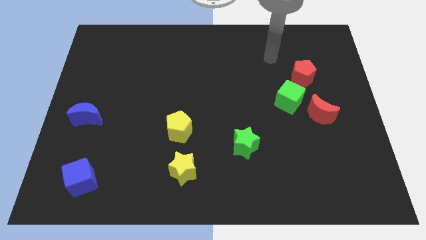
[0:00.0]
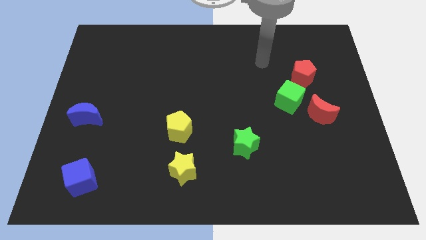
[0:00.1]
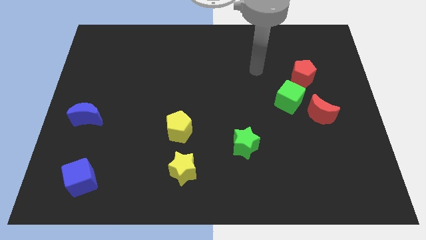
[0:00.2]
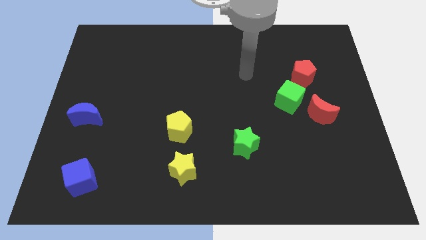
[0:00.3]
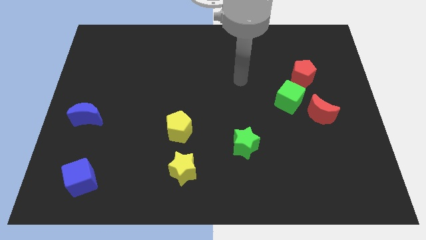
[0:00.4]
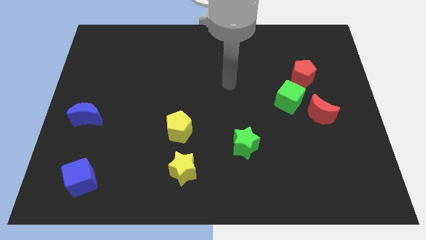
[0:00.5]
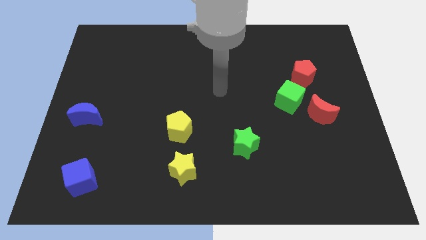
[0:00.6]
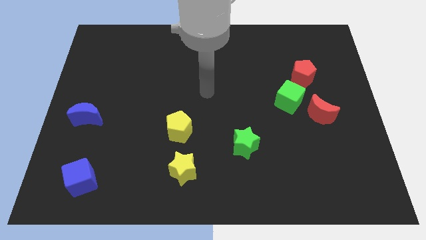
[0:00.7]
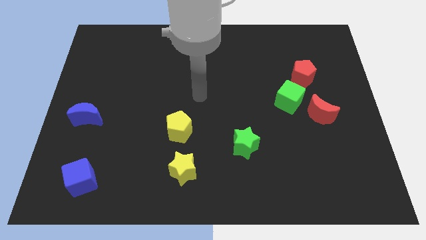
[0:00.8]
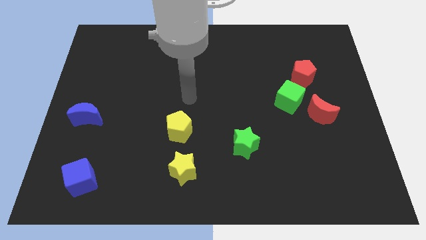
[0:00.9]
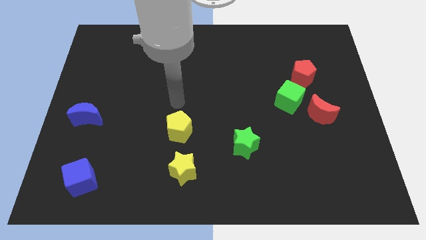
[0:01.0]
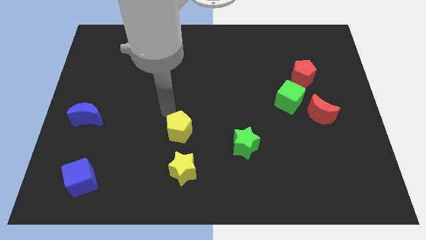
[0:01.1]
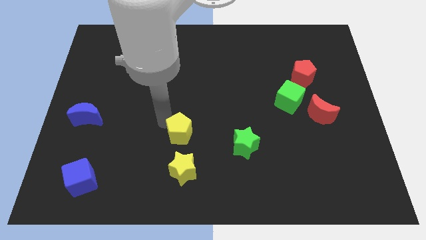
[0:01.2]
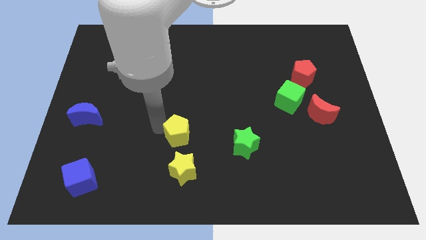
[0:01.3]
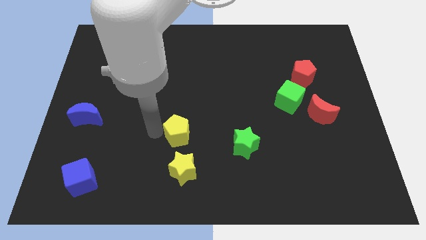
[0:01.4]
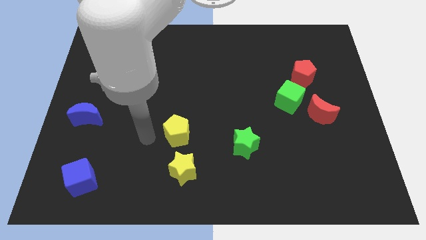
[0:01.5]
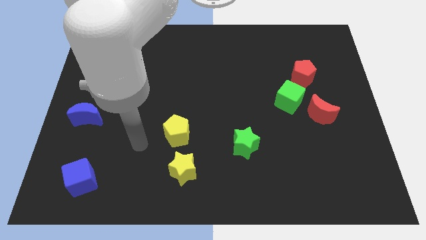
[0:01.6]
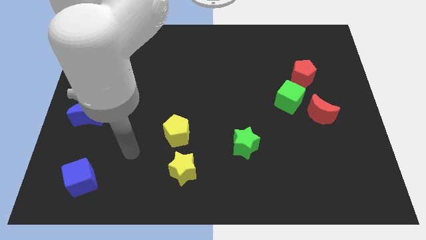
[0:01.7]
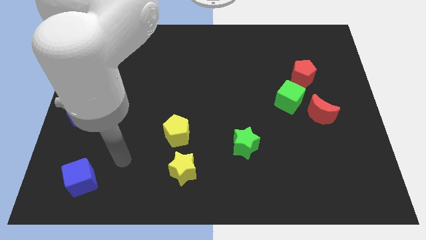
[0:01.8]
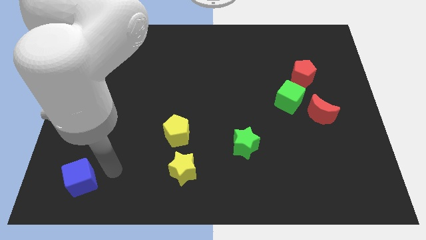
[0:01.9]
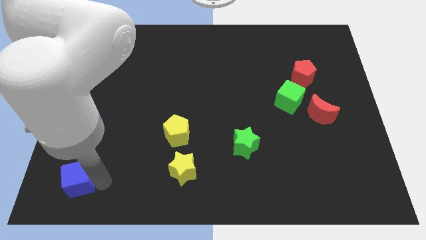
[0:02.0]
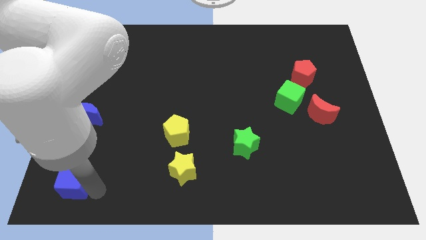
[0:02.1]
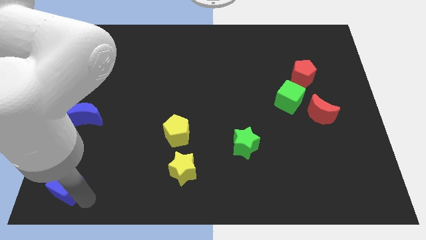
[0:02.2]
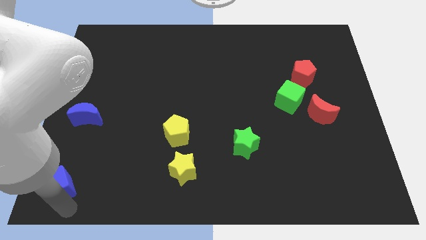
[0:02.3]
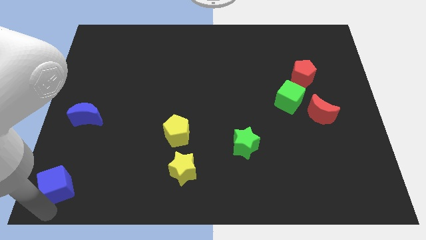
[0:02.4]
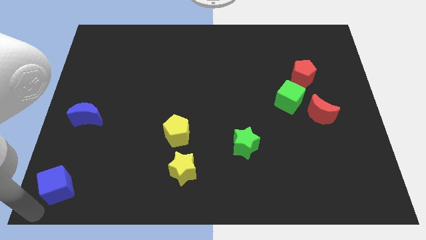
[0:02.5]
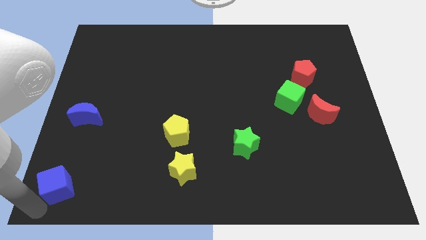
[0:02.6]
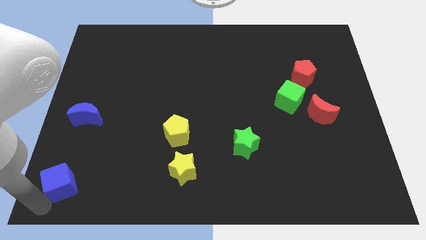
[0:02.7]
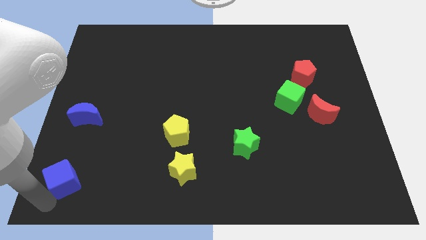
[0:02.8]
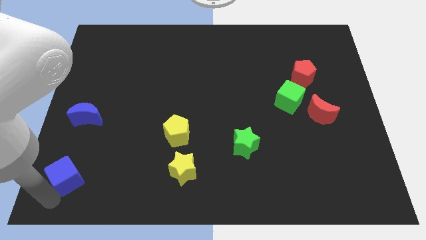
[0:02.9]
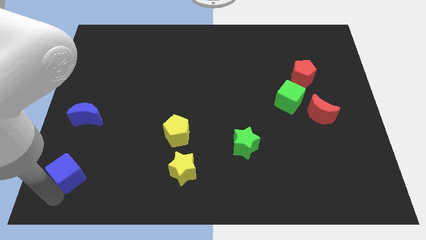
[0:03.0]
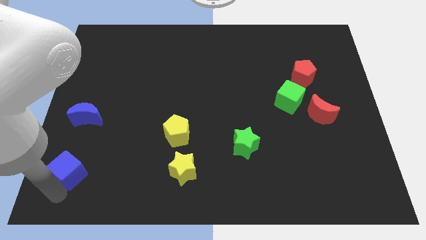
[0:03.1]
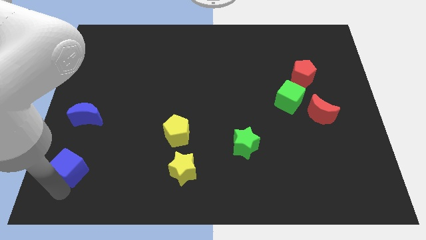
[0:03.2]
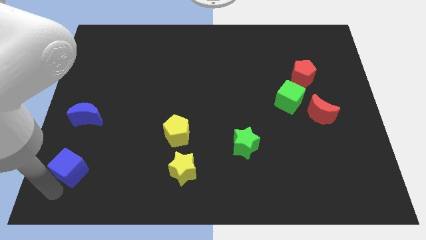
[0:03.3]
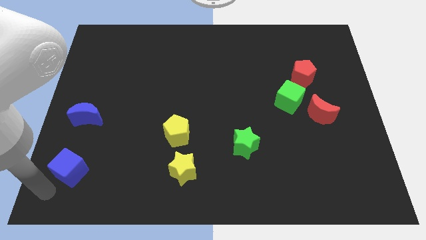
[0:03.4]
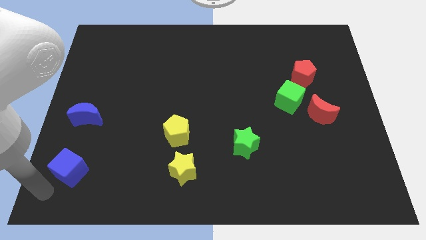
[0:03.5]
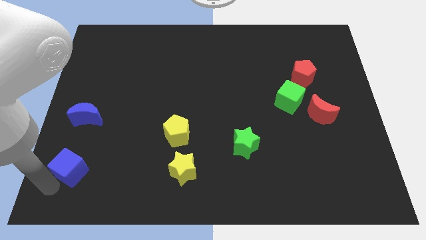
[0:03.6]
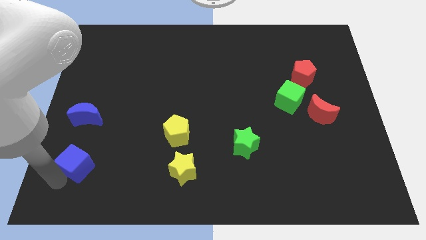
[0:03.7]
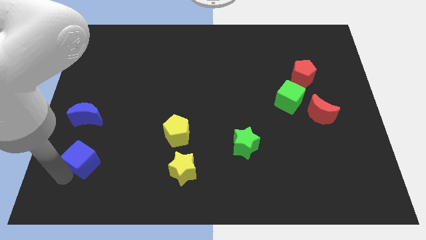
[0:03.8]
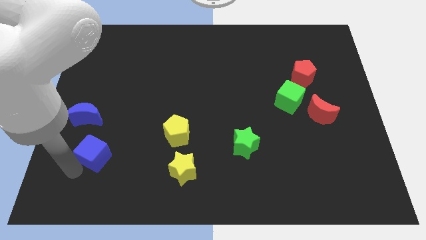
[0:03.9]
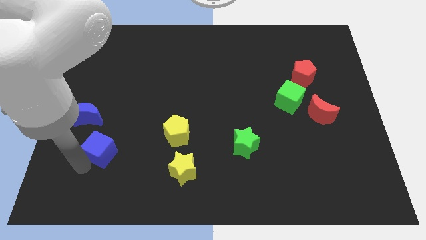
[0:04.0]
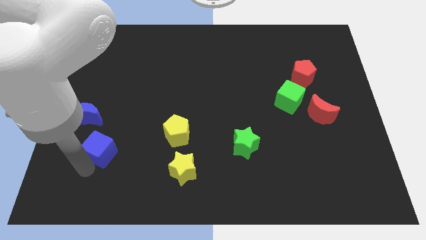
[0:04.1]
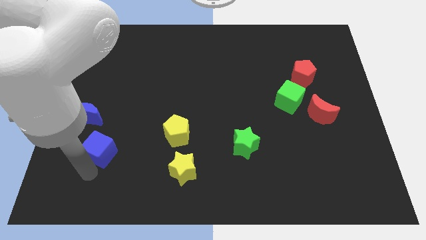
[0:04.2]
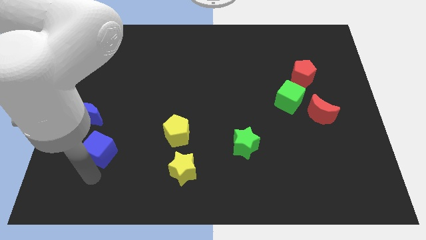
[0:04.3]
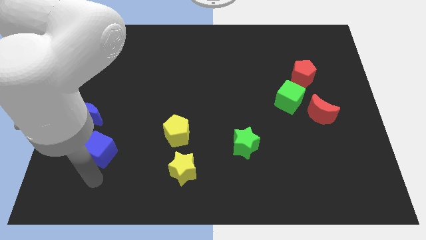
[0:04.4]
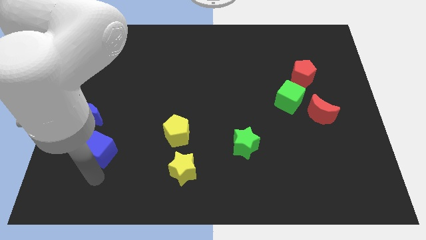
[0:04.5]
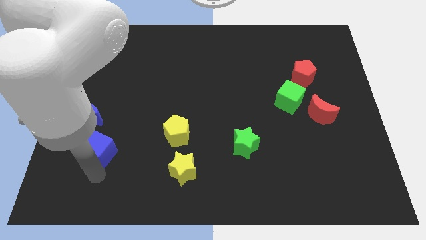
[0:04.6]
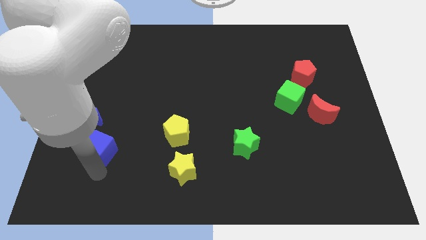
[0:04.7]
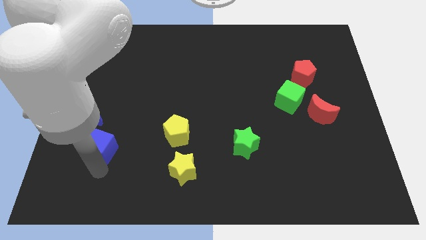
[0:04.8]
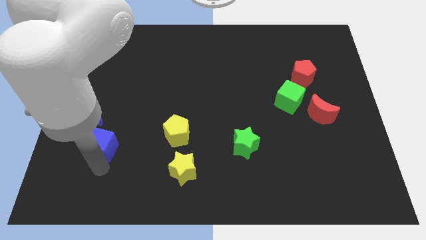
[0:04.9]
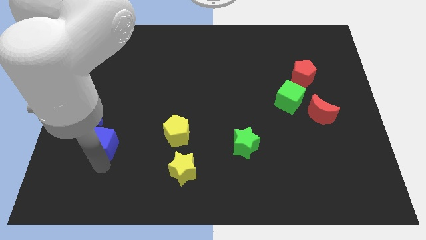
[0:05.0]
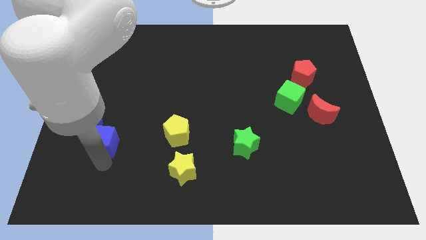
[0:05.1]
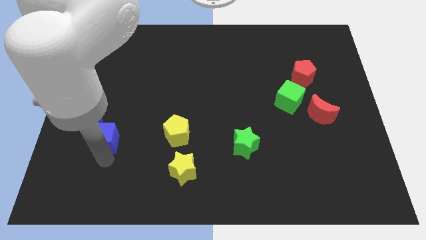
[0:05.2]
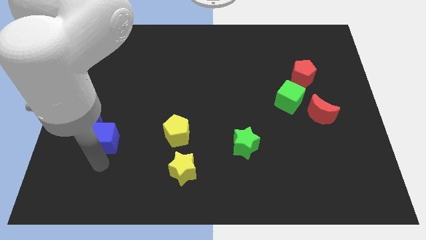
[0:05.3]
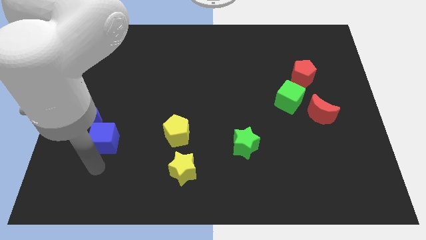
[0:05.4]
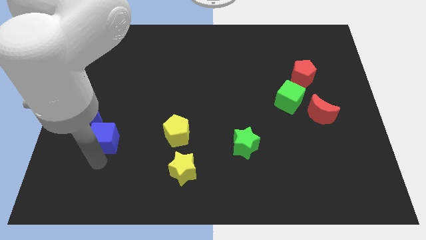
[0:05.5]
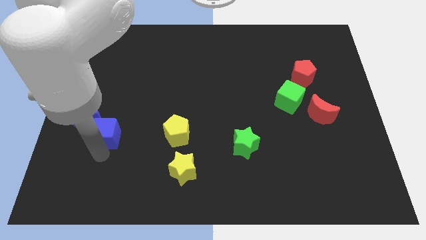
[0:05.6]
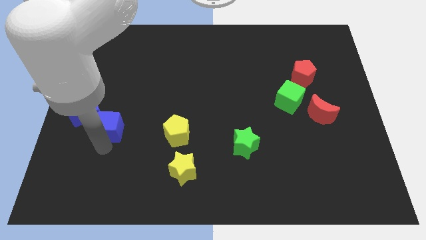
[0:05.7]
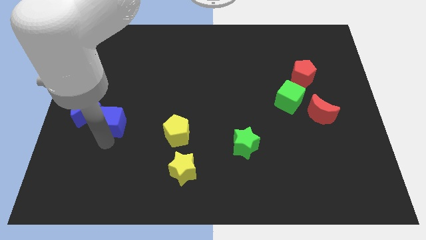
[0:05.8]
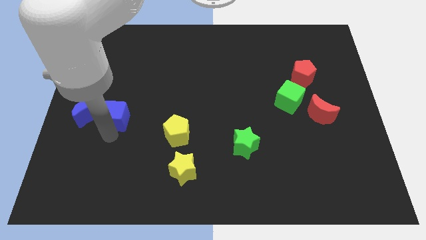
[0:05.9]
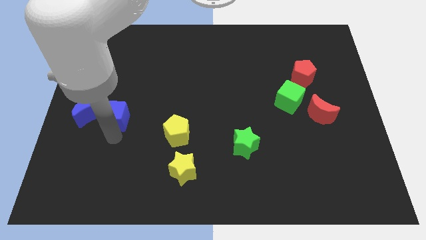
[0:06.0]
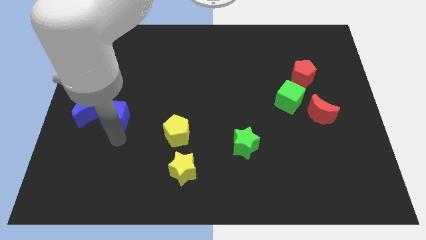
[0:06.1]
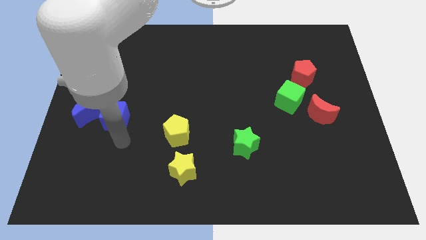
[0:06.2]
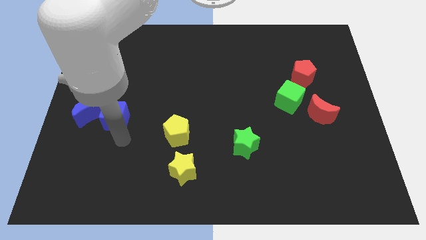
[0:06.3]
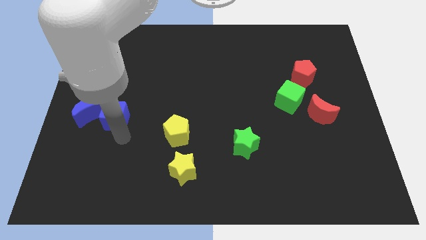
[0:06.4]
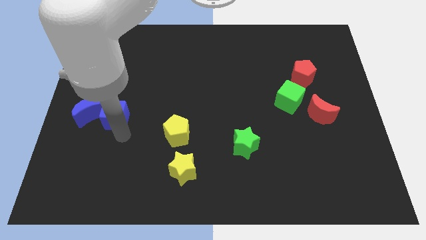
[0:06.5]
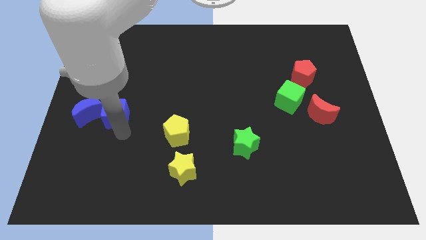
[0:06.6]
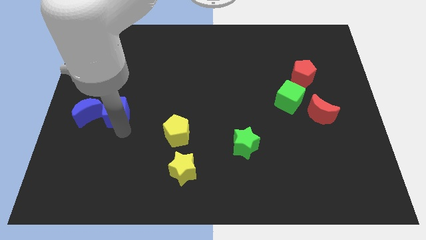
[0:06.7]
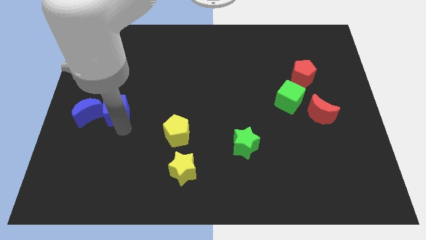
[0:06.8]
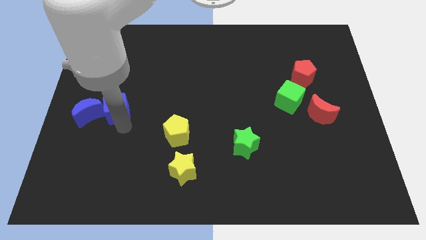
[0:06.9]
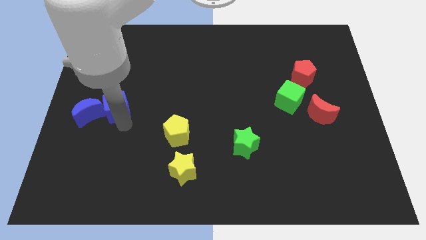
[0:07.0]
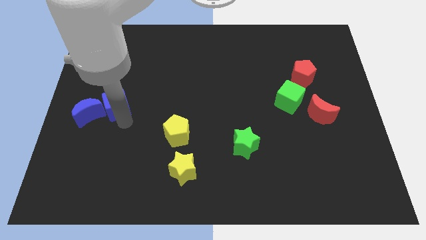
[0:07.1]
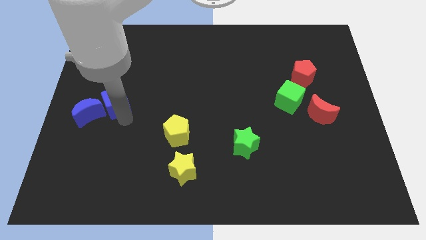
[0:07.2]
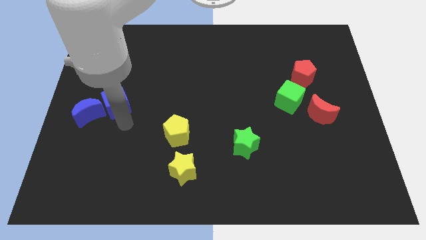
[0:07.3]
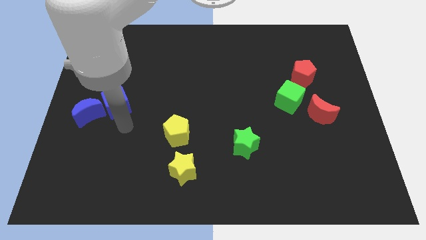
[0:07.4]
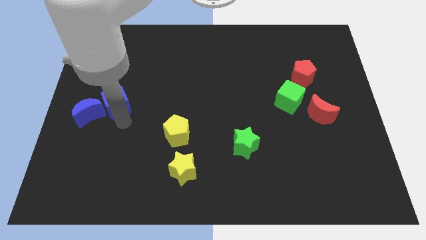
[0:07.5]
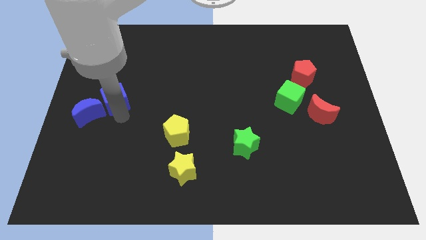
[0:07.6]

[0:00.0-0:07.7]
move the blue cube up

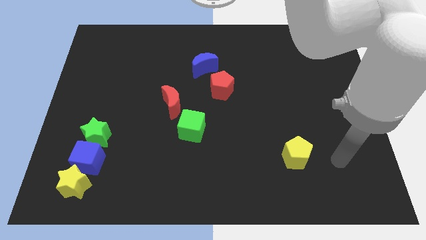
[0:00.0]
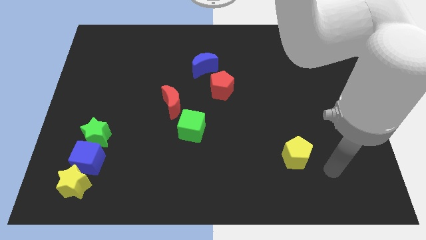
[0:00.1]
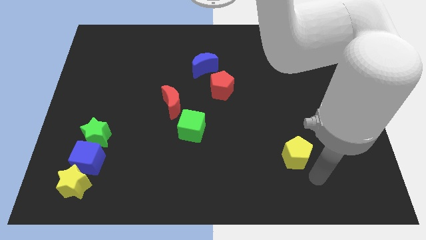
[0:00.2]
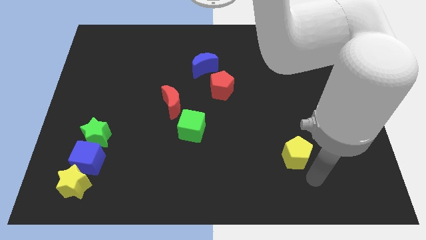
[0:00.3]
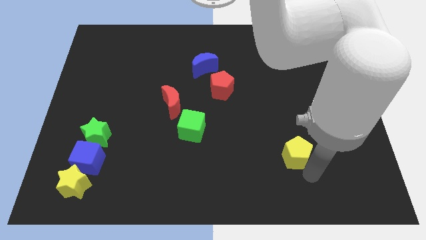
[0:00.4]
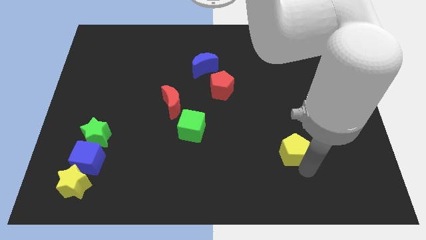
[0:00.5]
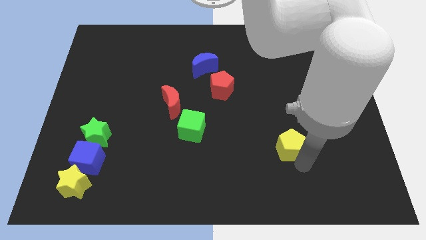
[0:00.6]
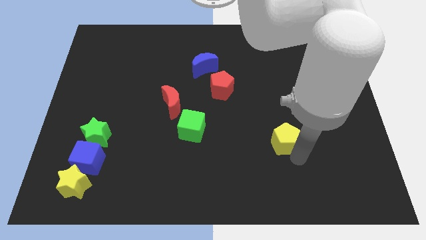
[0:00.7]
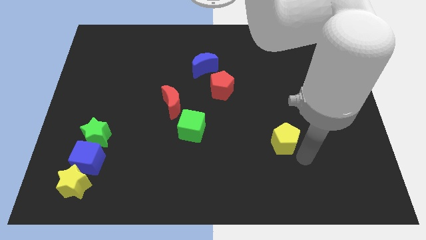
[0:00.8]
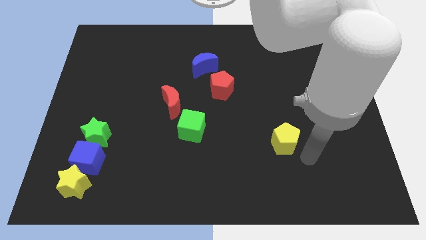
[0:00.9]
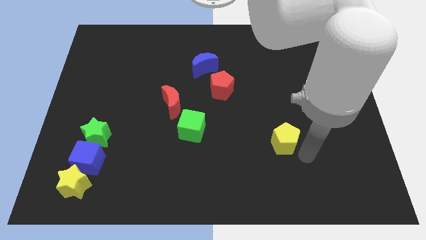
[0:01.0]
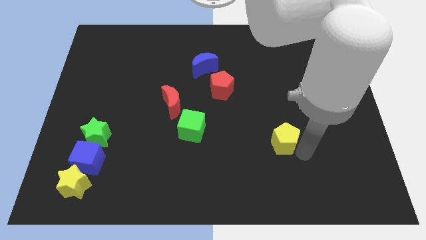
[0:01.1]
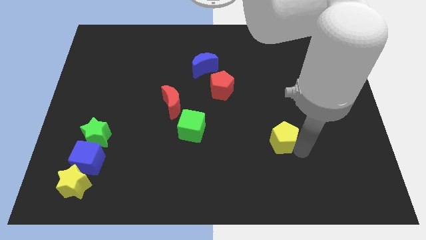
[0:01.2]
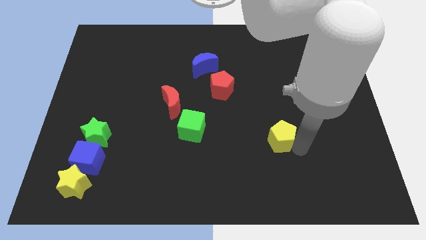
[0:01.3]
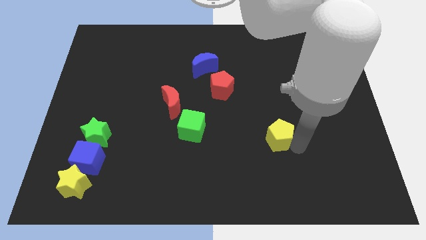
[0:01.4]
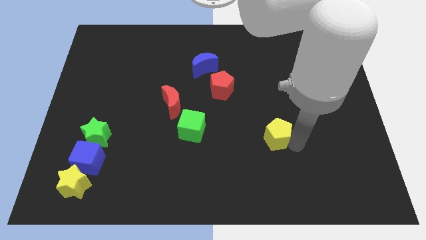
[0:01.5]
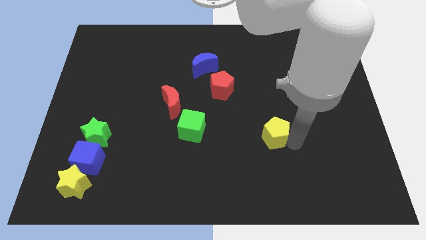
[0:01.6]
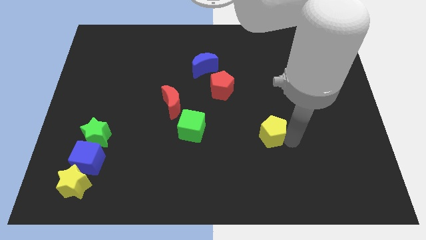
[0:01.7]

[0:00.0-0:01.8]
slightly move the yellow pentagon diagonally upwards and left
